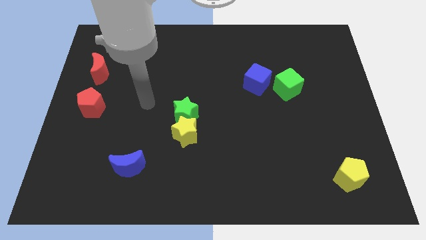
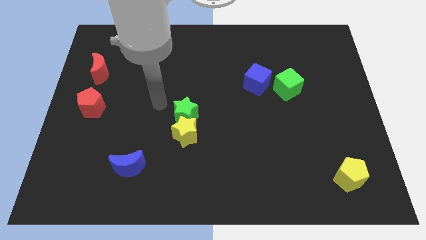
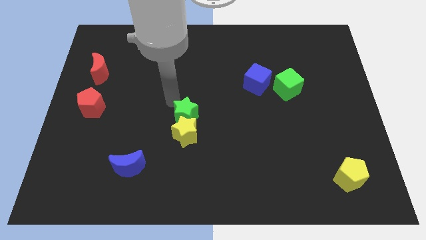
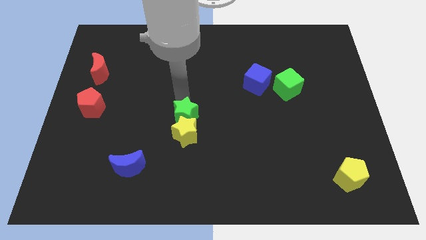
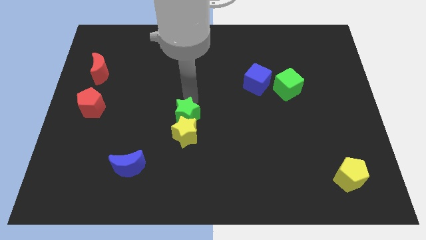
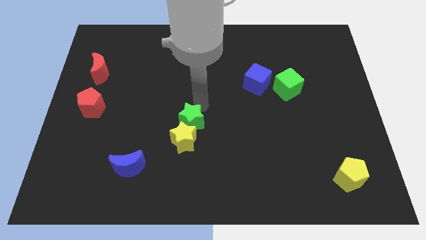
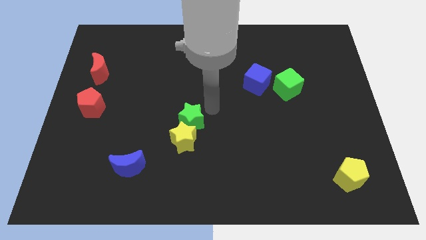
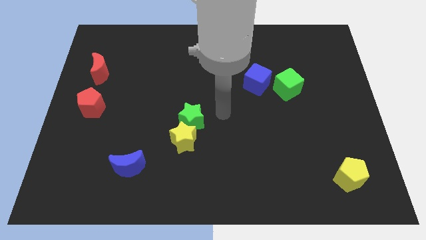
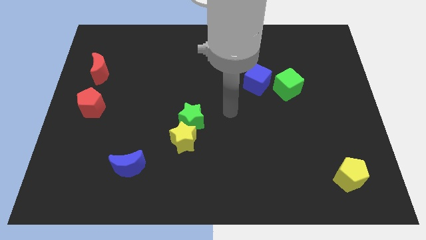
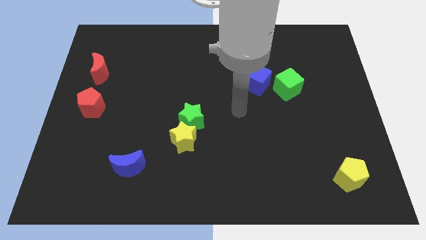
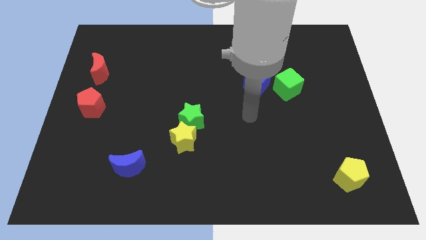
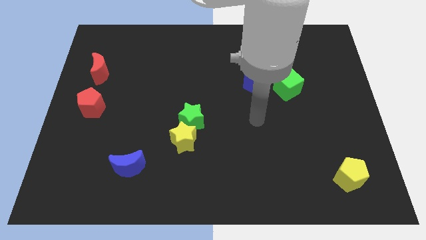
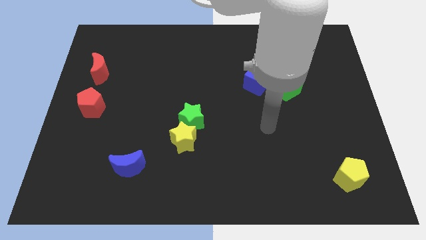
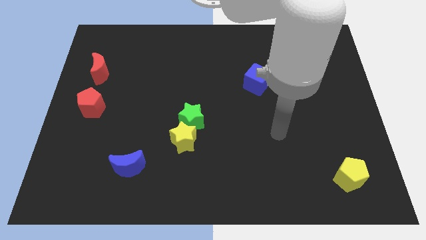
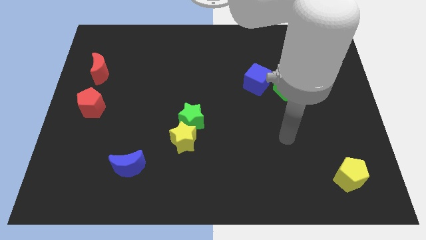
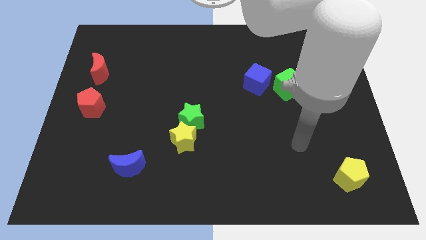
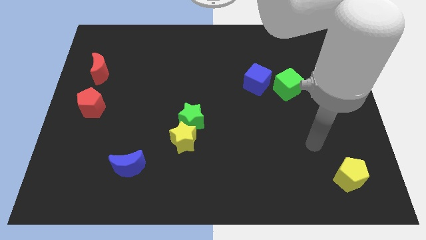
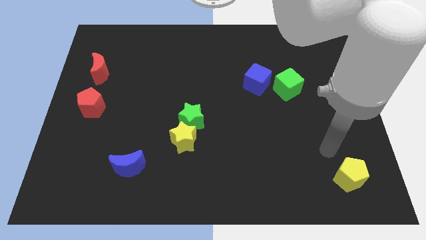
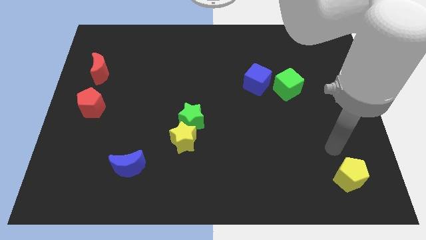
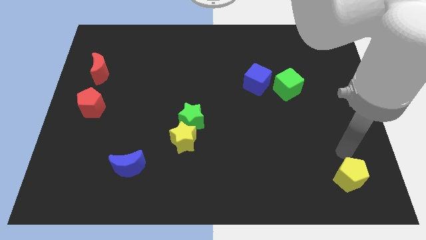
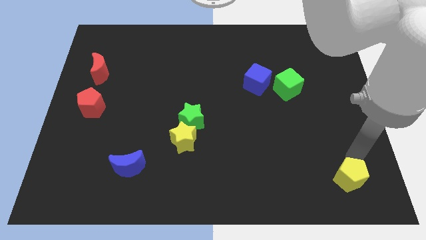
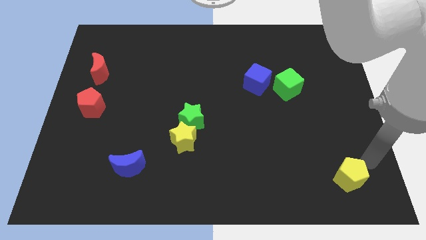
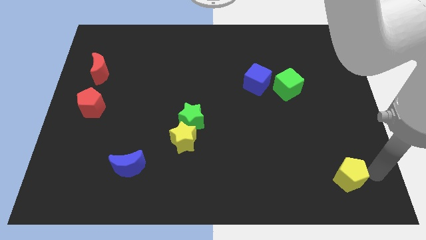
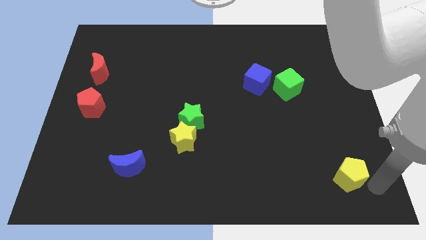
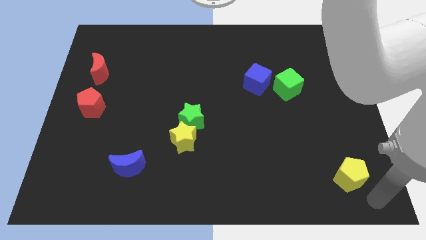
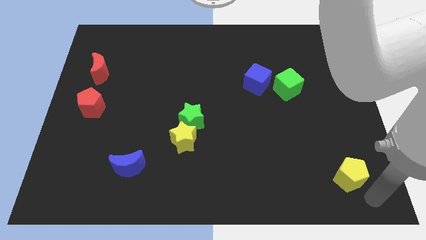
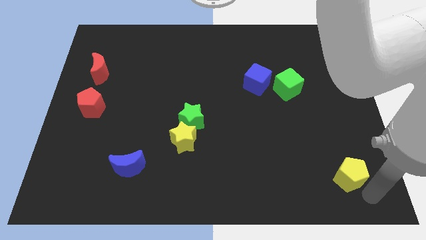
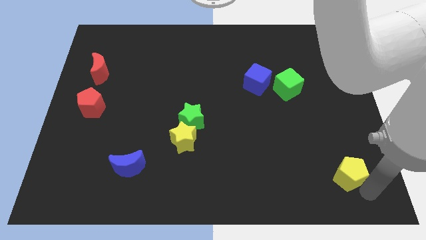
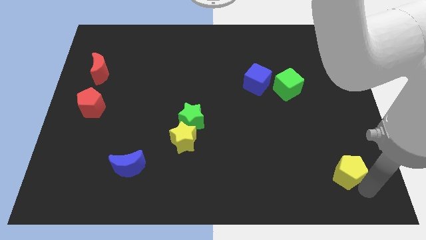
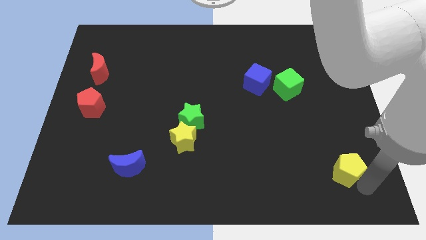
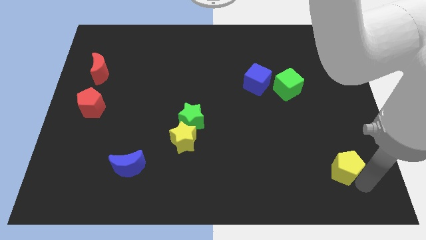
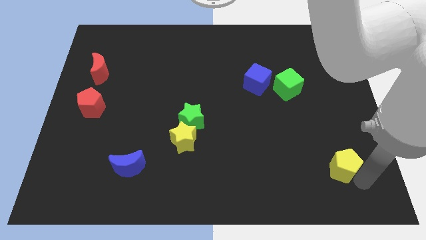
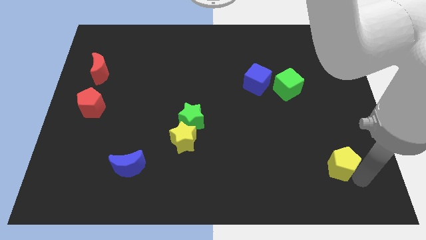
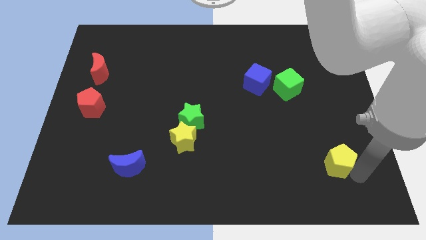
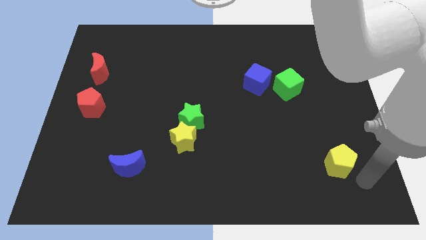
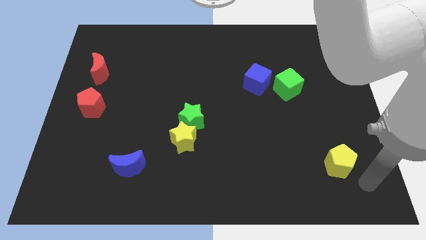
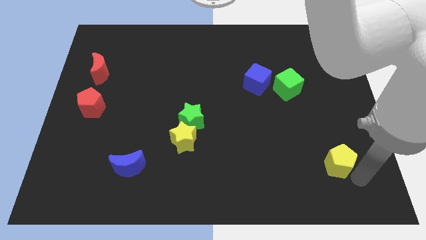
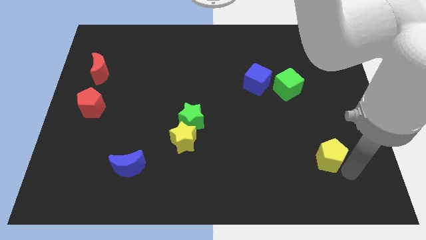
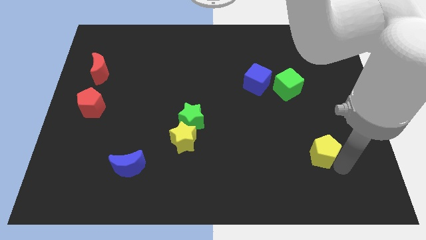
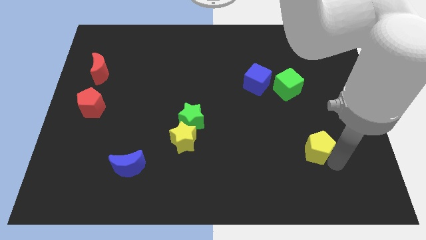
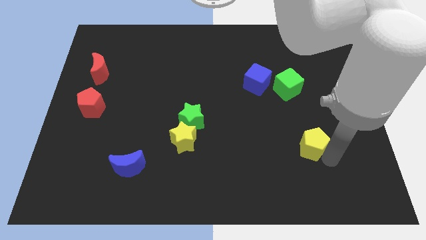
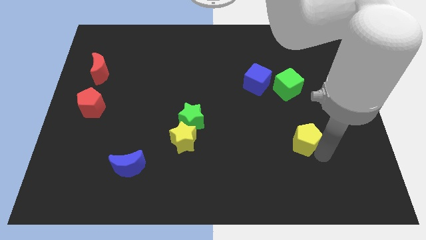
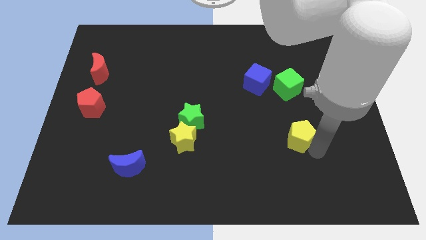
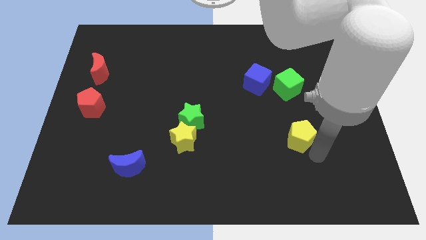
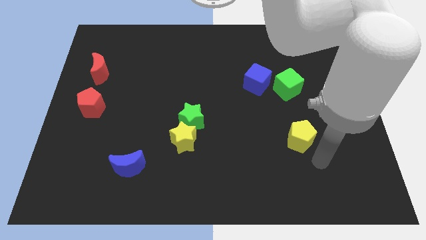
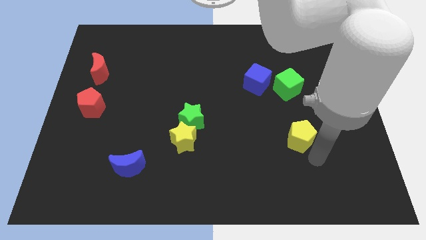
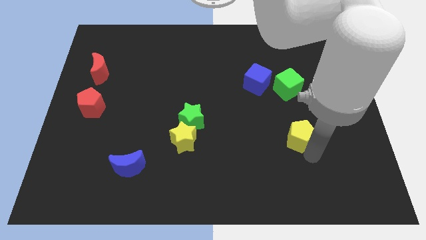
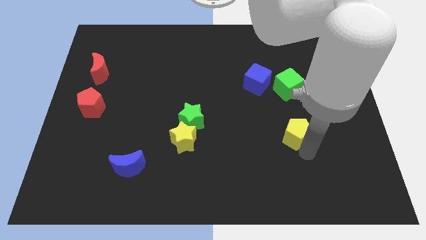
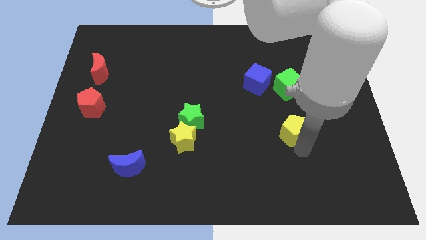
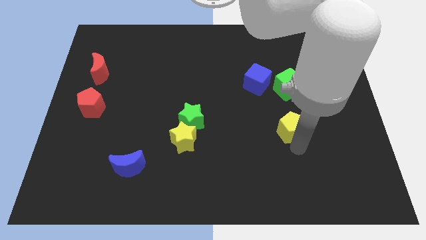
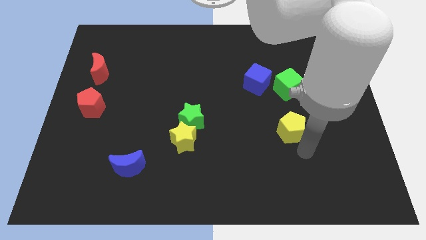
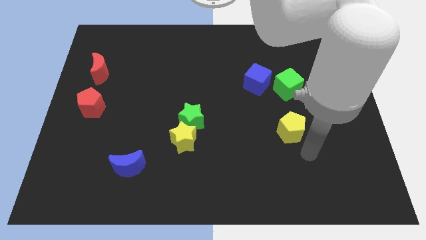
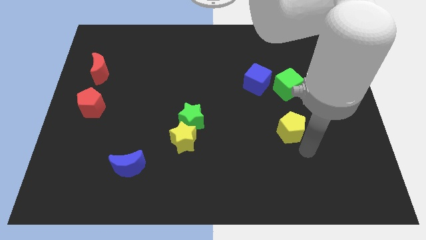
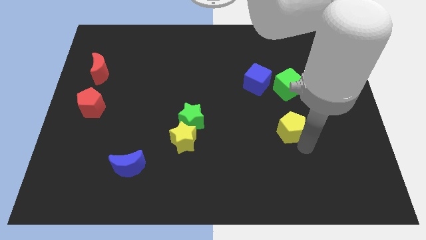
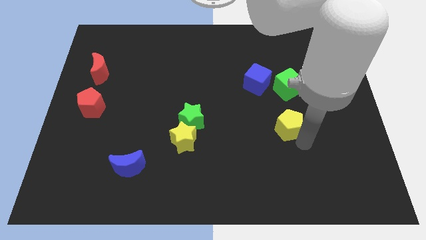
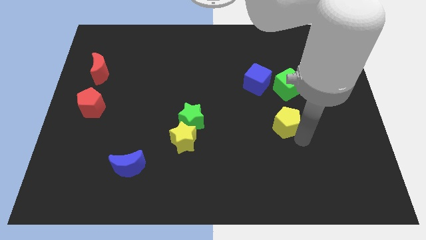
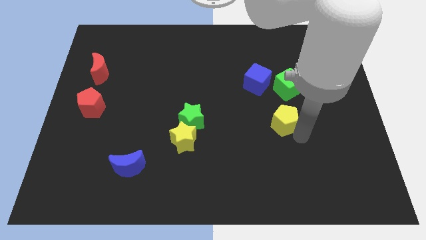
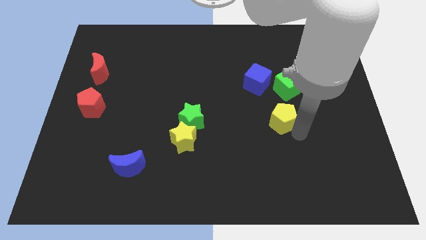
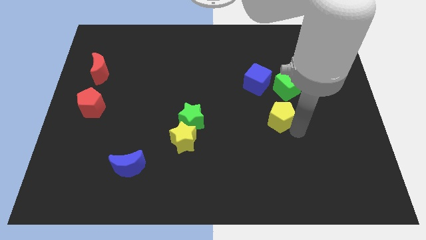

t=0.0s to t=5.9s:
move the yellow pentagon diagonally down and to the left of the green cube

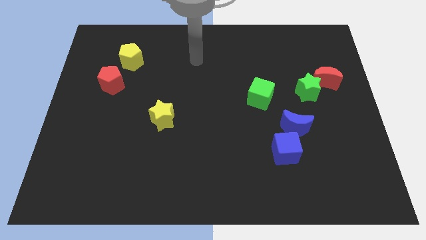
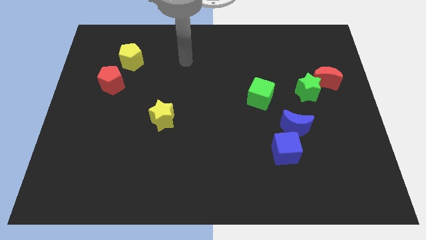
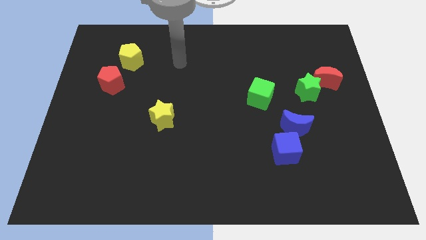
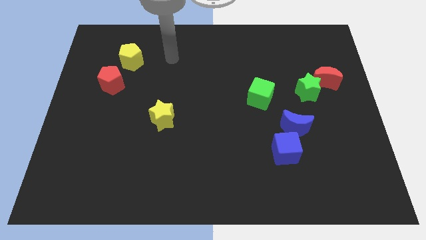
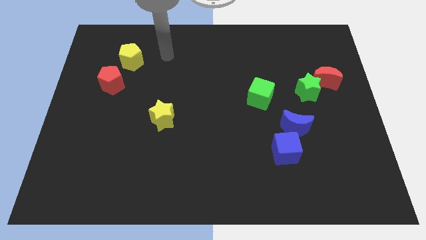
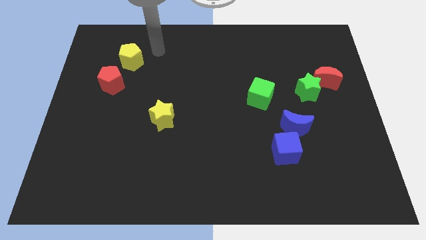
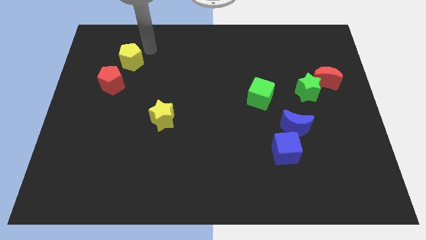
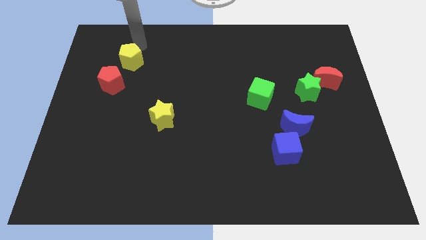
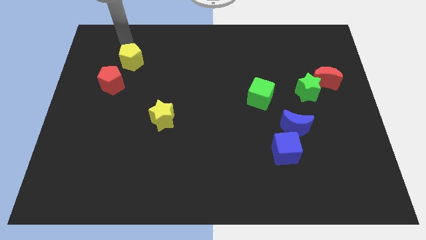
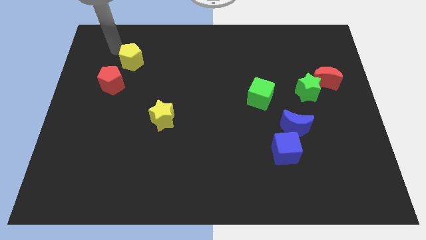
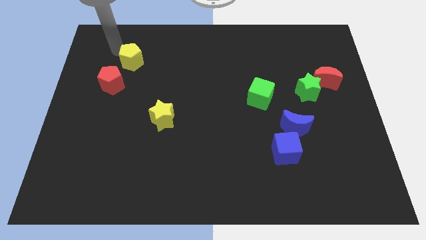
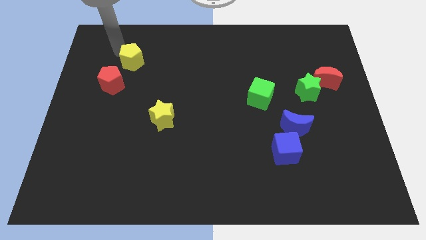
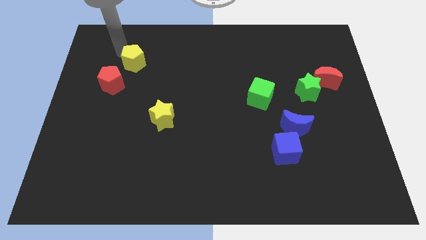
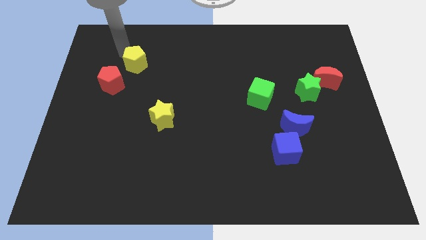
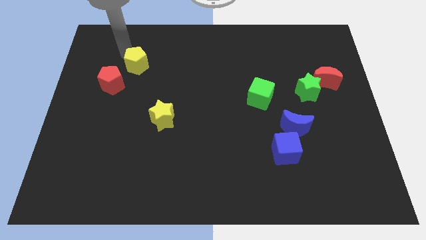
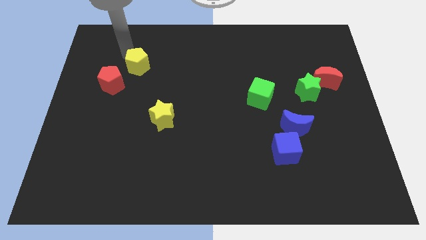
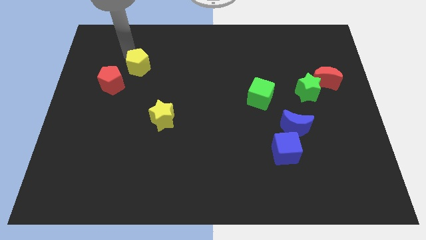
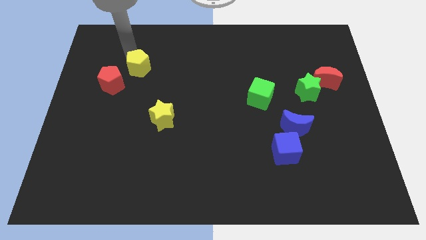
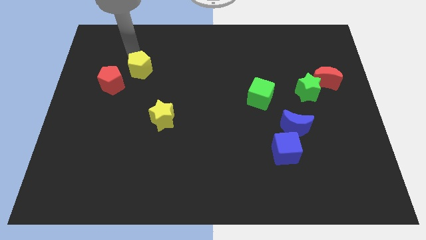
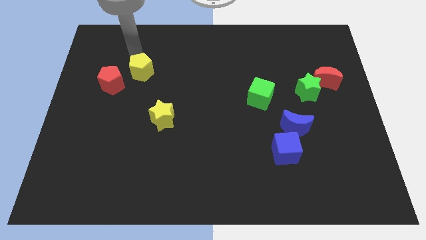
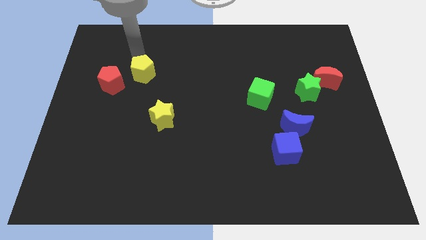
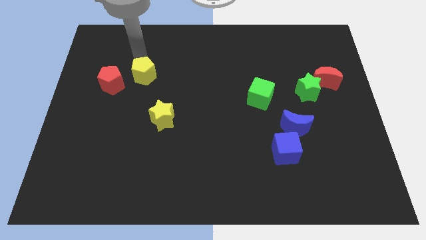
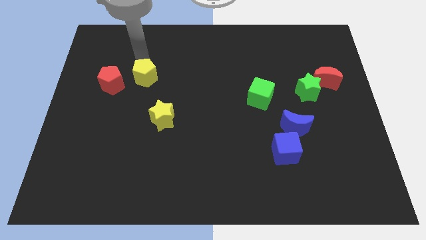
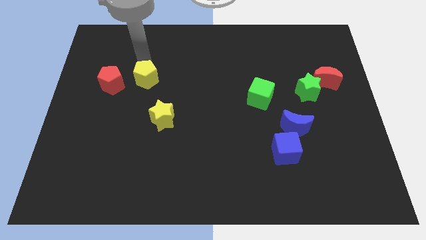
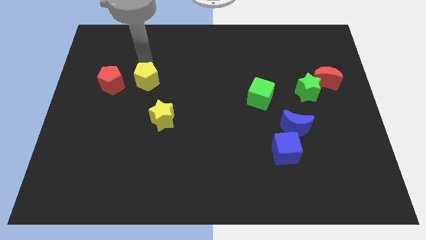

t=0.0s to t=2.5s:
push the yellow pentagon to the top side of the yellow star
